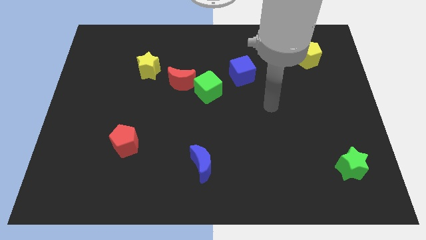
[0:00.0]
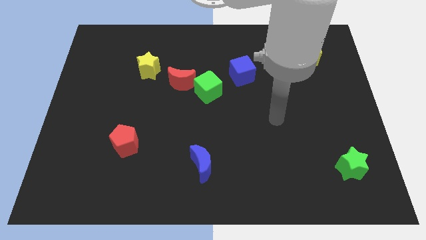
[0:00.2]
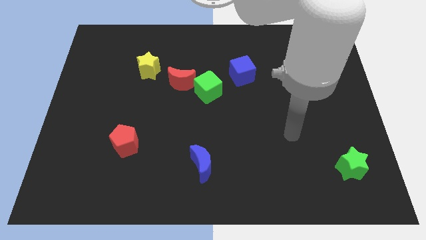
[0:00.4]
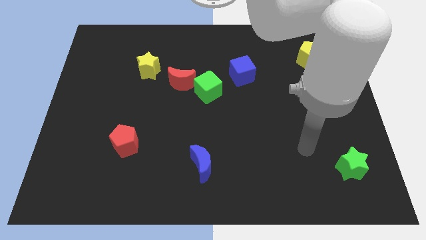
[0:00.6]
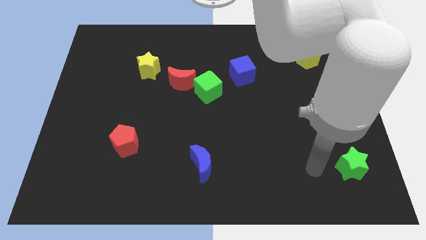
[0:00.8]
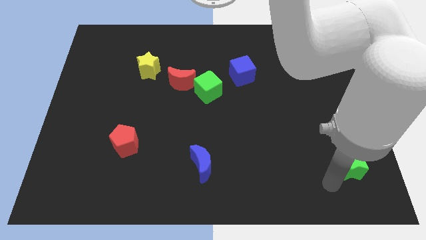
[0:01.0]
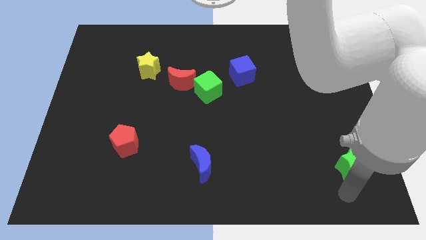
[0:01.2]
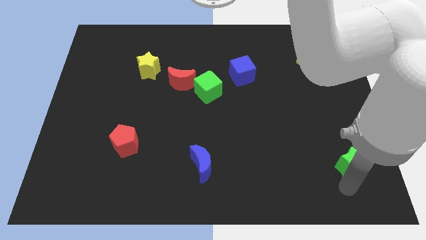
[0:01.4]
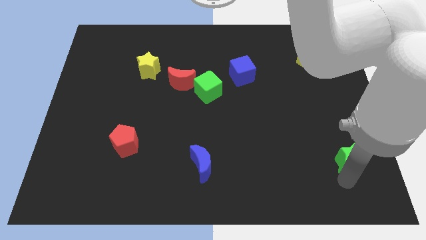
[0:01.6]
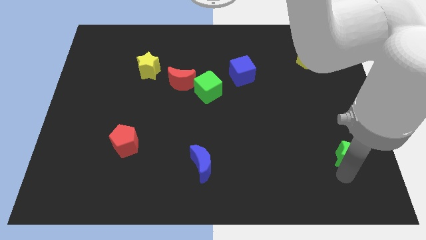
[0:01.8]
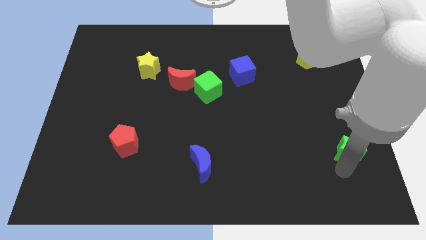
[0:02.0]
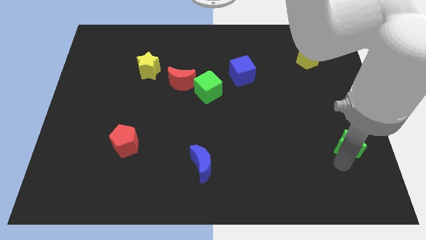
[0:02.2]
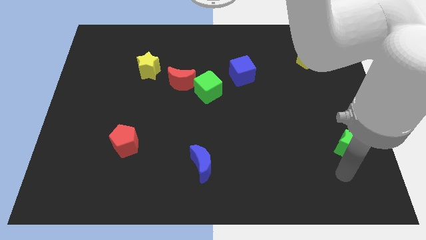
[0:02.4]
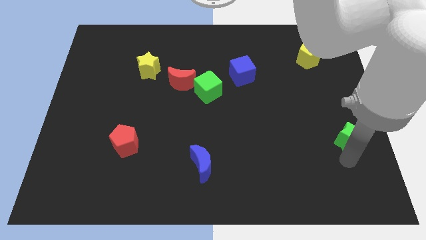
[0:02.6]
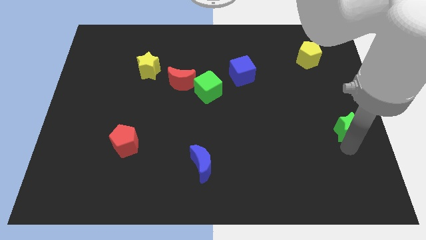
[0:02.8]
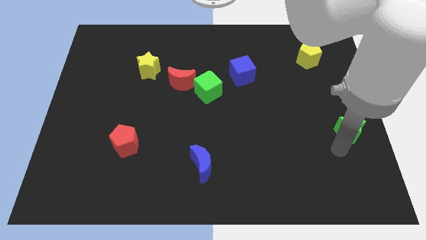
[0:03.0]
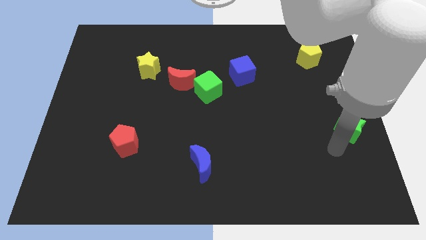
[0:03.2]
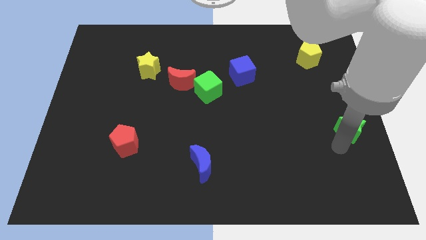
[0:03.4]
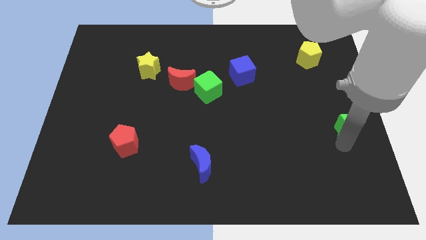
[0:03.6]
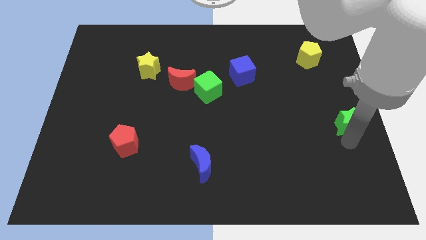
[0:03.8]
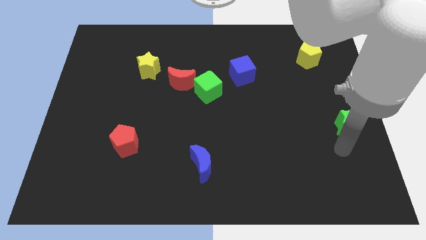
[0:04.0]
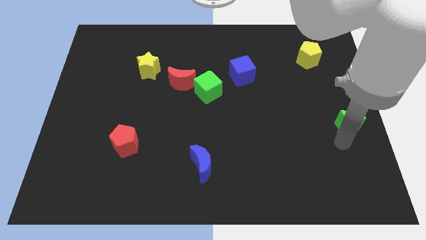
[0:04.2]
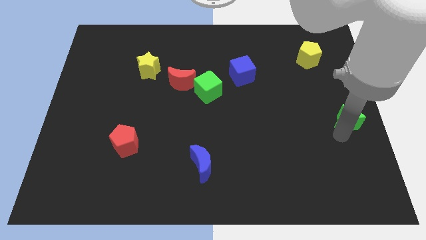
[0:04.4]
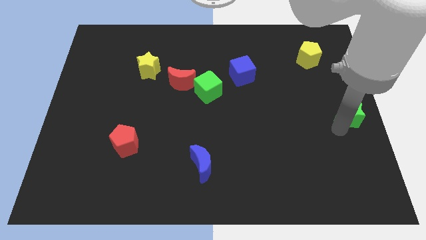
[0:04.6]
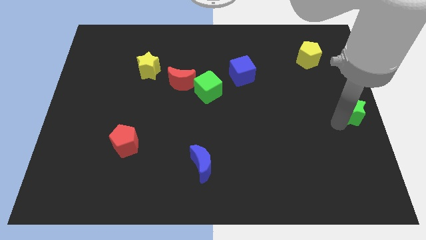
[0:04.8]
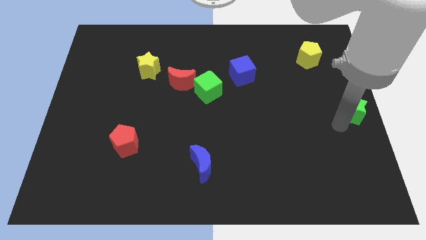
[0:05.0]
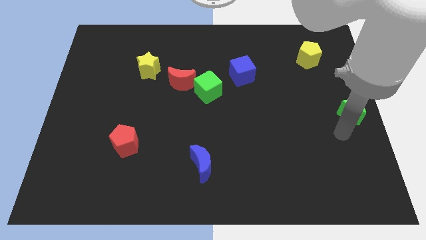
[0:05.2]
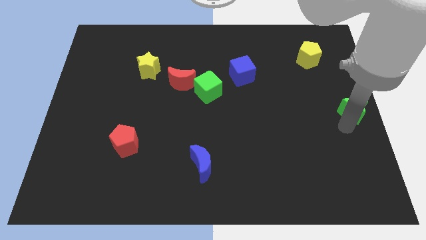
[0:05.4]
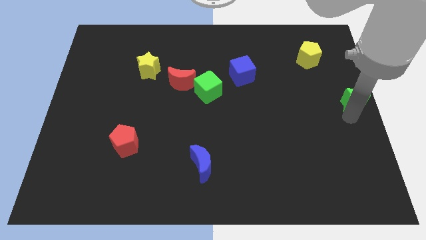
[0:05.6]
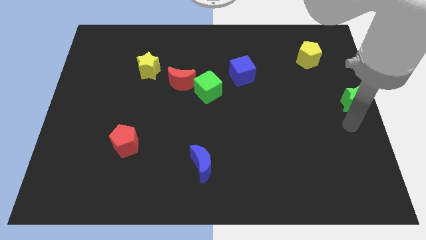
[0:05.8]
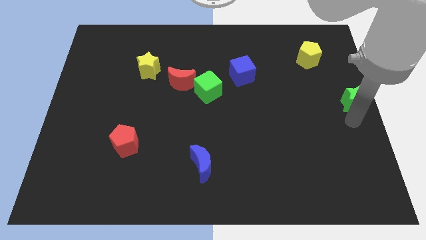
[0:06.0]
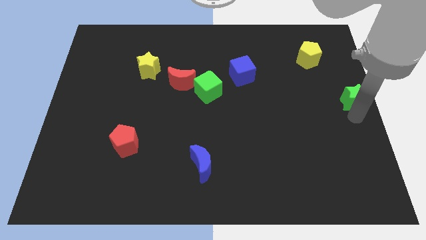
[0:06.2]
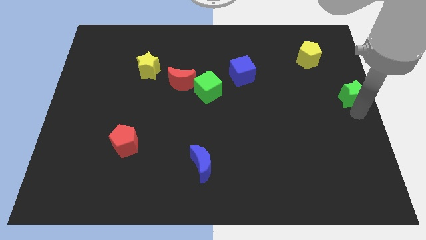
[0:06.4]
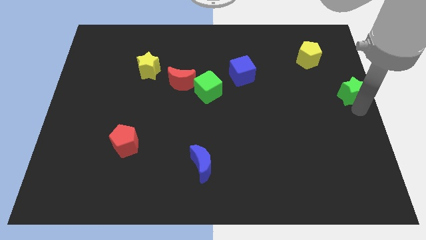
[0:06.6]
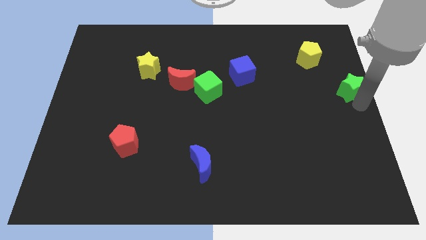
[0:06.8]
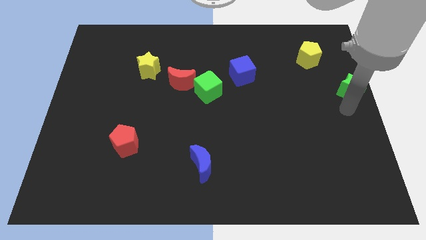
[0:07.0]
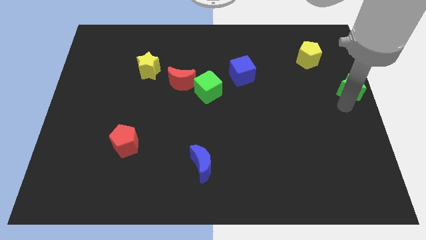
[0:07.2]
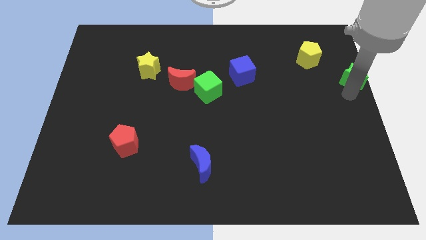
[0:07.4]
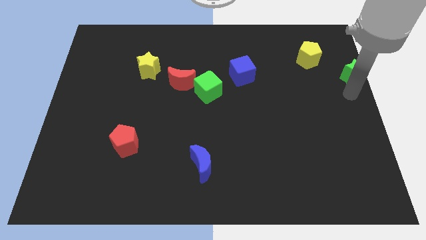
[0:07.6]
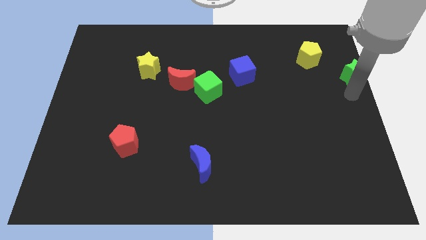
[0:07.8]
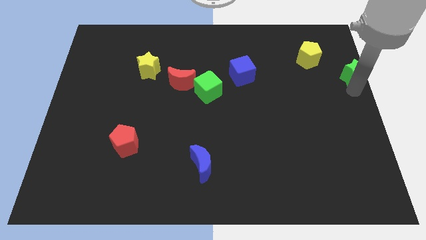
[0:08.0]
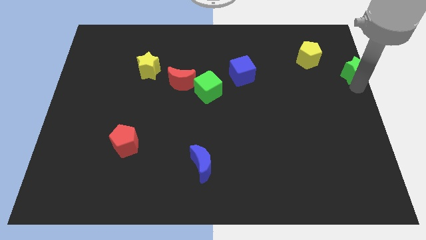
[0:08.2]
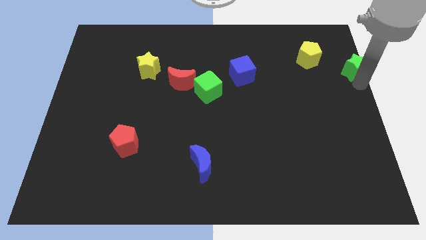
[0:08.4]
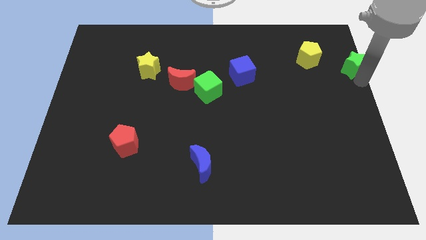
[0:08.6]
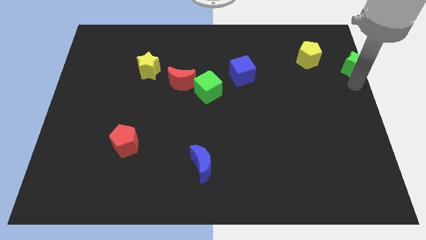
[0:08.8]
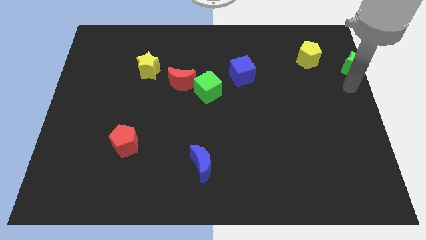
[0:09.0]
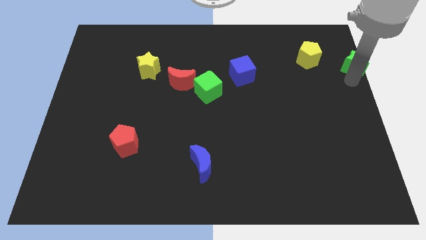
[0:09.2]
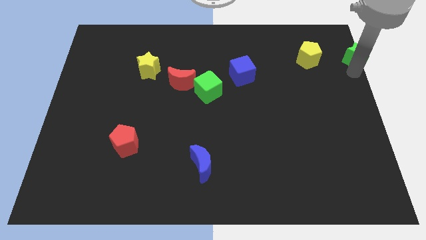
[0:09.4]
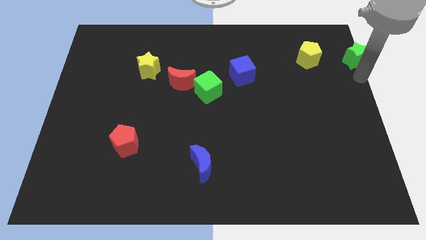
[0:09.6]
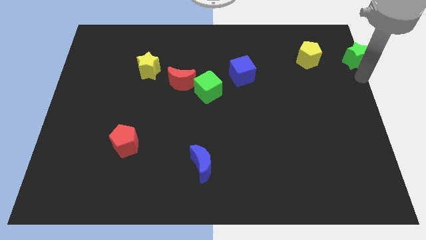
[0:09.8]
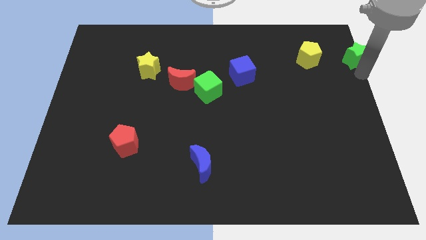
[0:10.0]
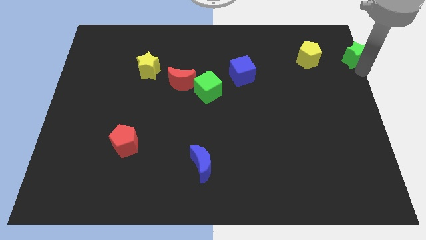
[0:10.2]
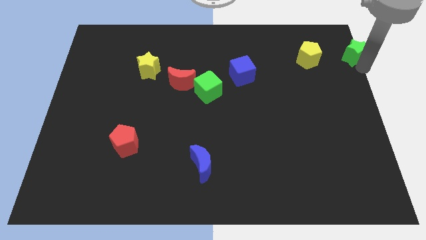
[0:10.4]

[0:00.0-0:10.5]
push the green star to the top right corner
